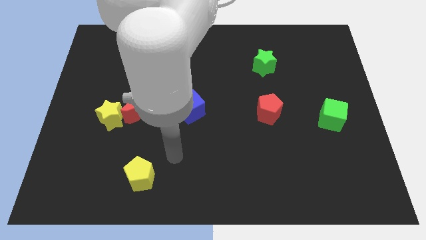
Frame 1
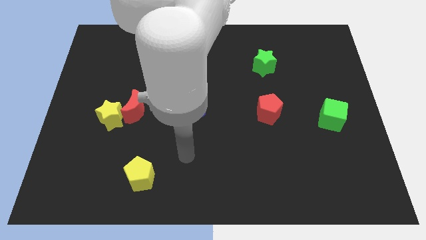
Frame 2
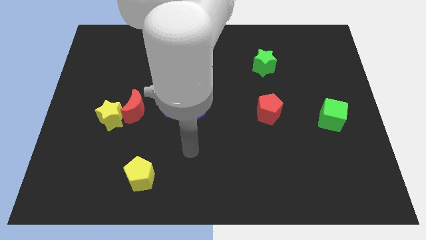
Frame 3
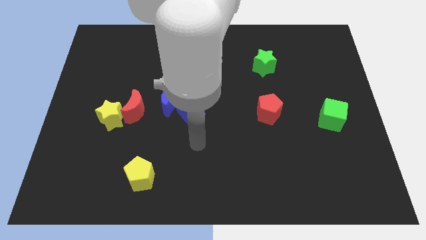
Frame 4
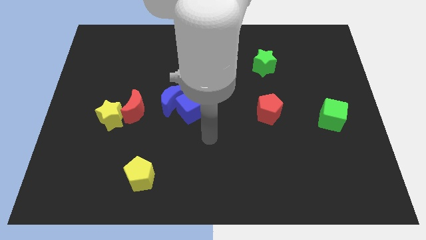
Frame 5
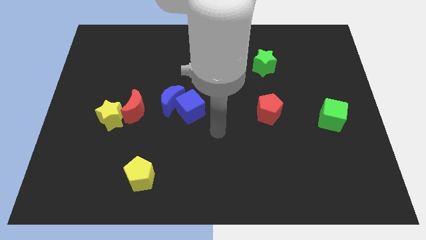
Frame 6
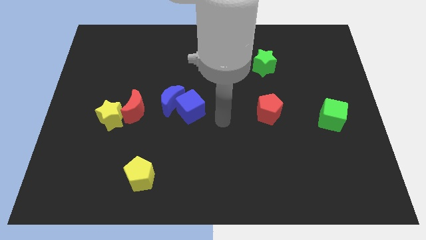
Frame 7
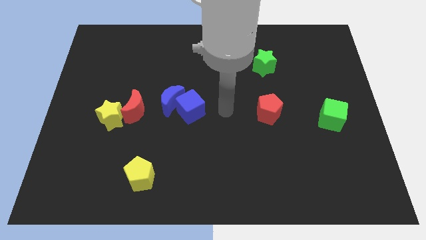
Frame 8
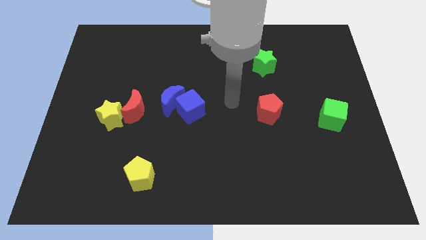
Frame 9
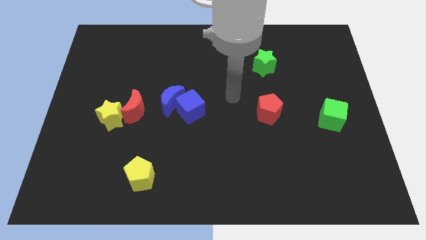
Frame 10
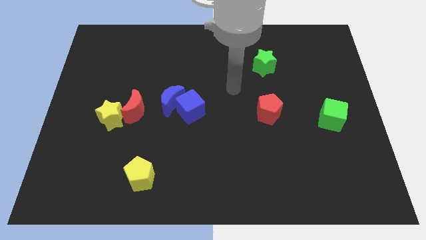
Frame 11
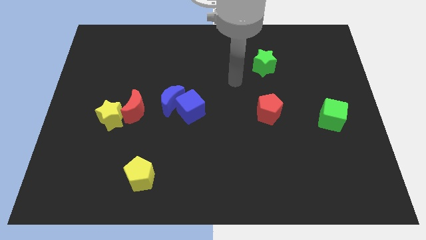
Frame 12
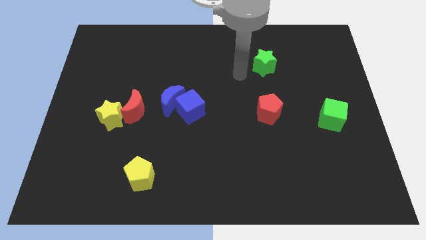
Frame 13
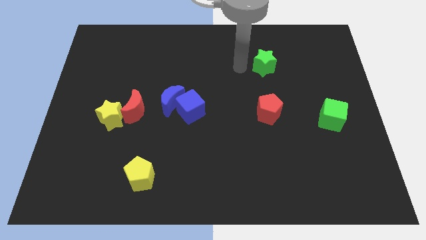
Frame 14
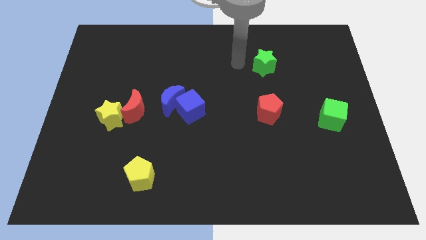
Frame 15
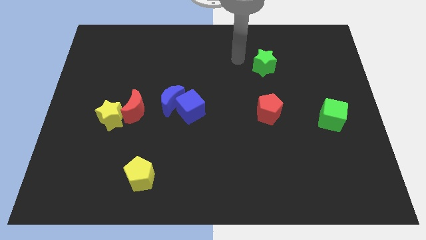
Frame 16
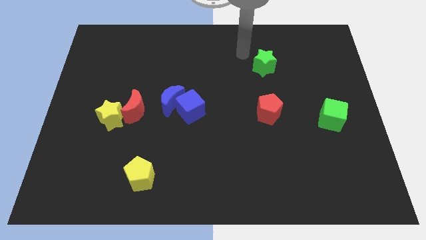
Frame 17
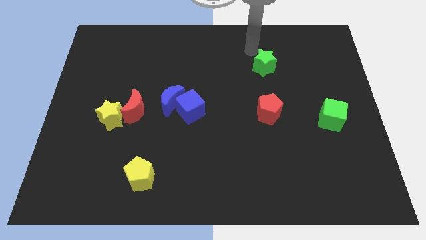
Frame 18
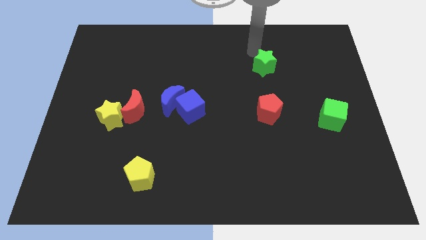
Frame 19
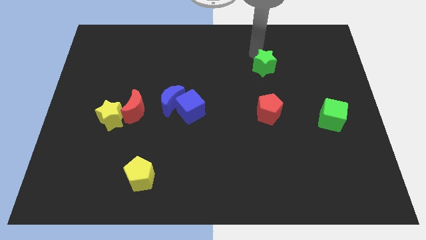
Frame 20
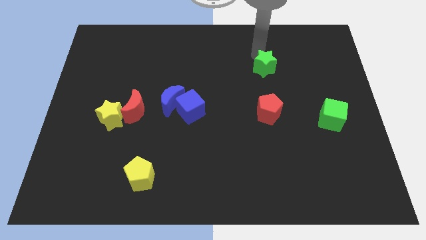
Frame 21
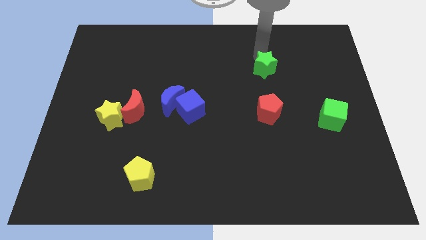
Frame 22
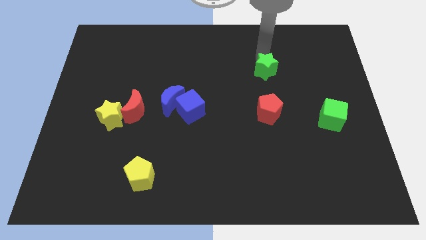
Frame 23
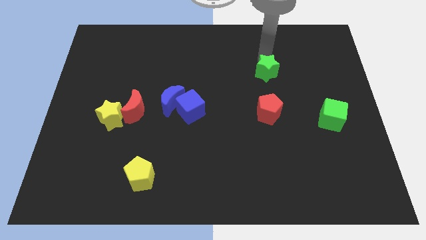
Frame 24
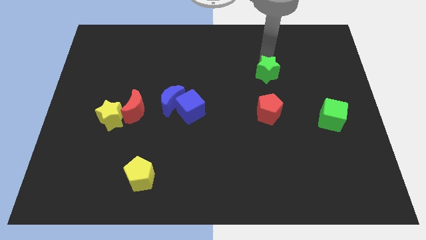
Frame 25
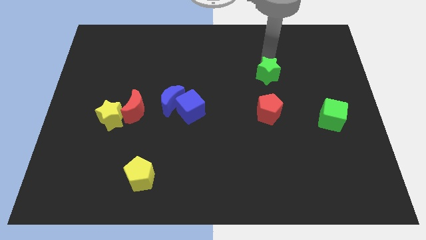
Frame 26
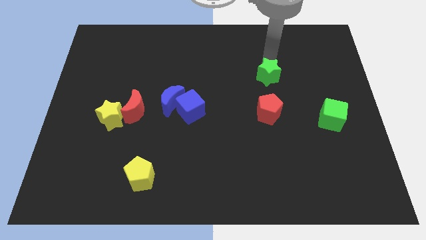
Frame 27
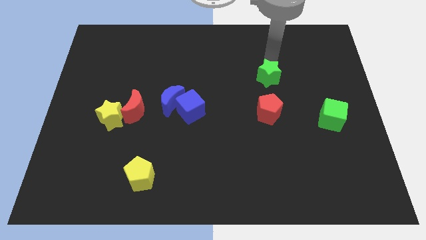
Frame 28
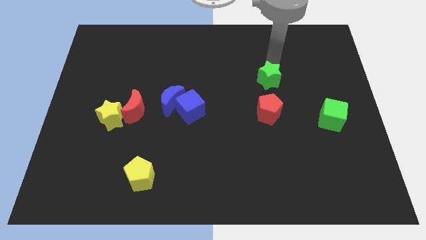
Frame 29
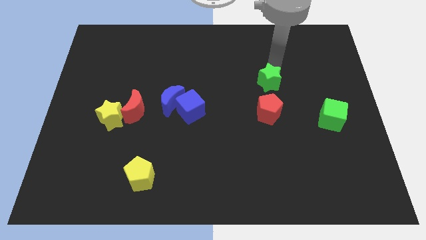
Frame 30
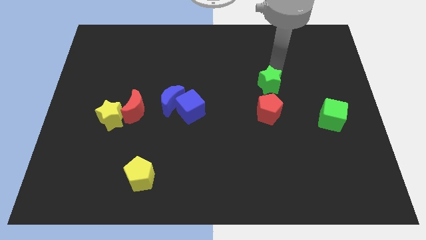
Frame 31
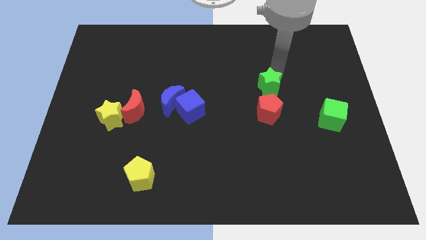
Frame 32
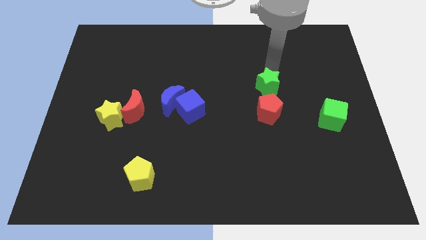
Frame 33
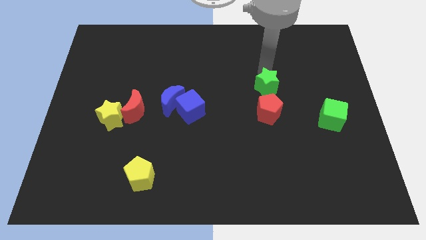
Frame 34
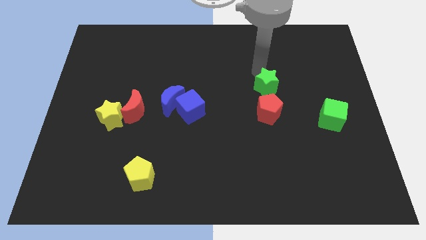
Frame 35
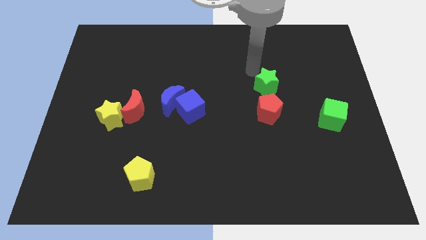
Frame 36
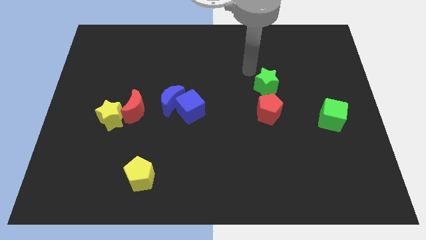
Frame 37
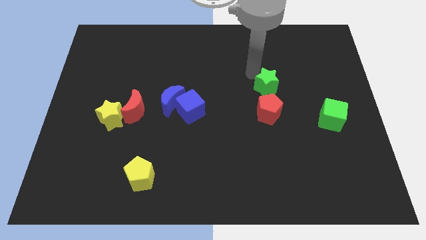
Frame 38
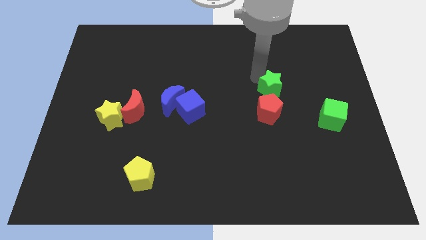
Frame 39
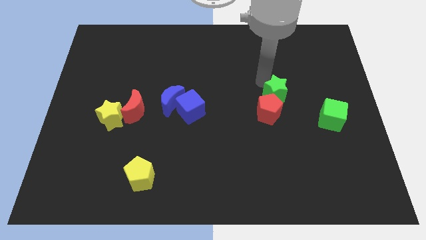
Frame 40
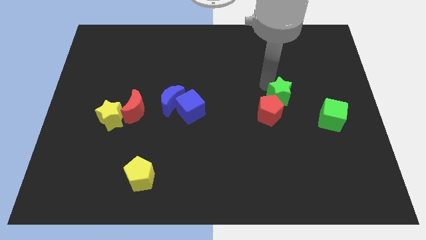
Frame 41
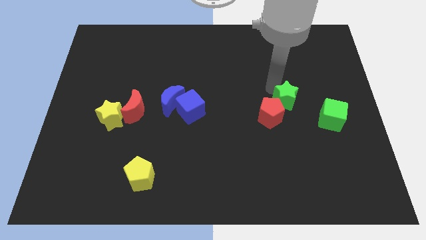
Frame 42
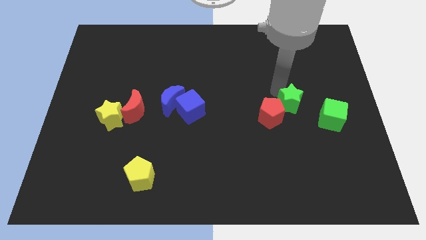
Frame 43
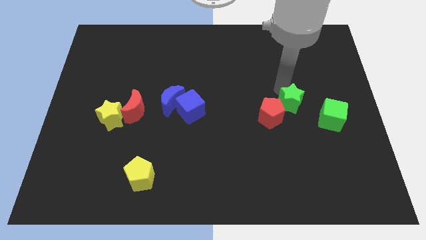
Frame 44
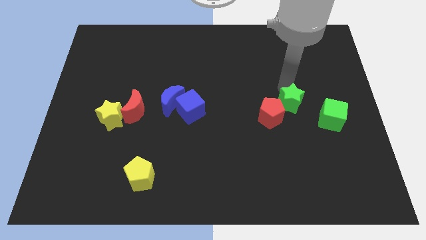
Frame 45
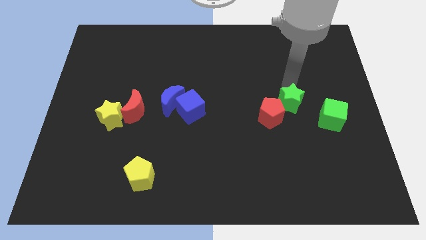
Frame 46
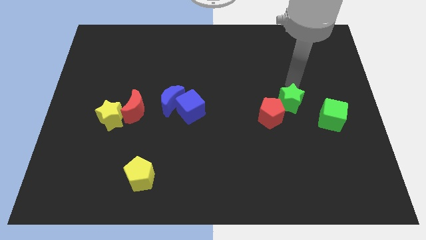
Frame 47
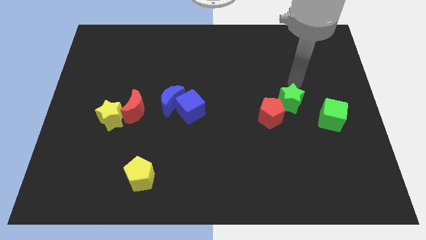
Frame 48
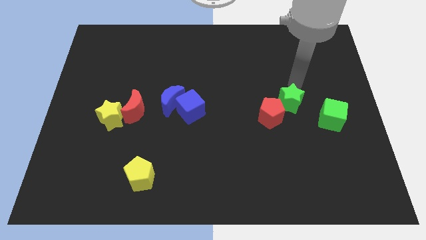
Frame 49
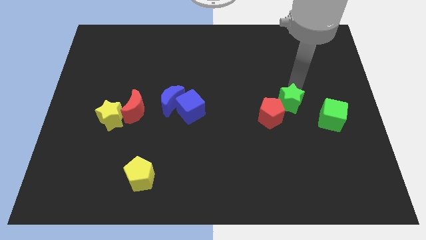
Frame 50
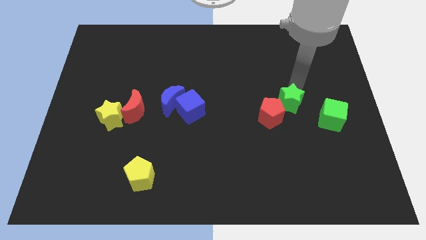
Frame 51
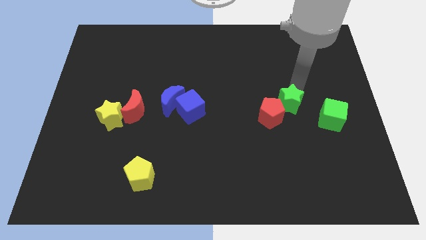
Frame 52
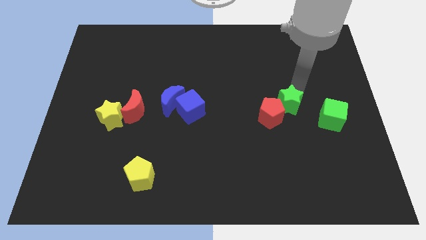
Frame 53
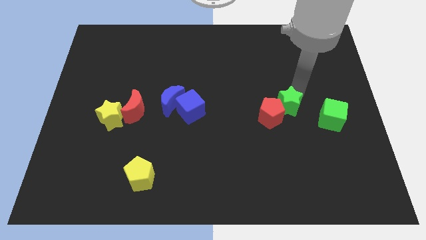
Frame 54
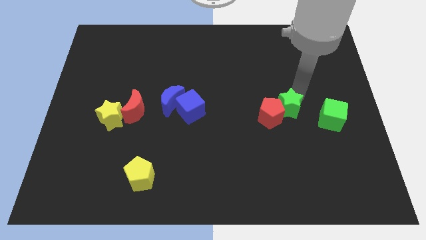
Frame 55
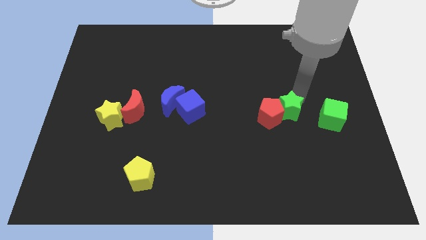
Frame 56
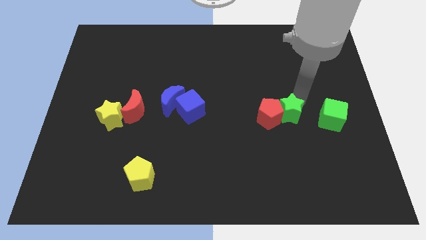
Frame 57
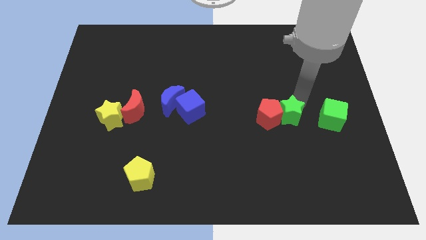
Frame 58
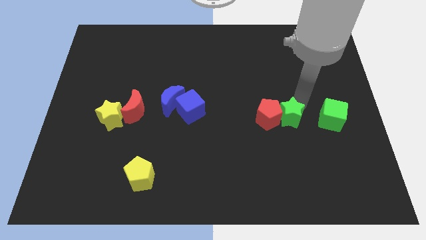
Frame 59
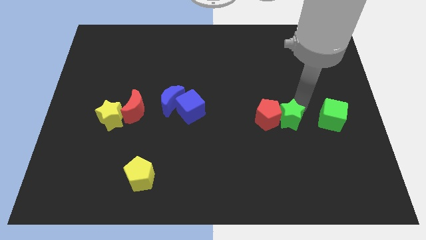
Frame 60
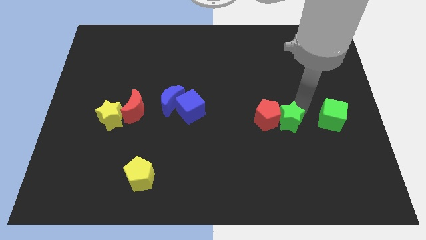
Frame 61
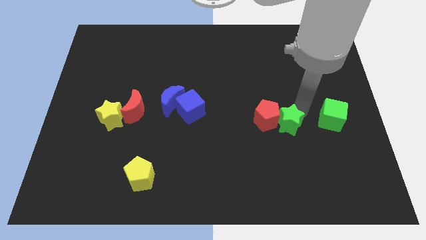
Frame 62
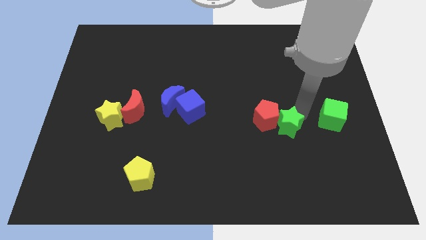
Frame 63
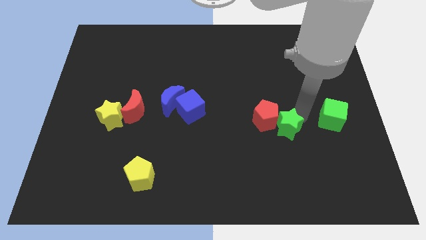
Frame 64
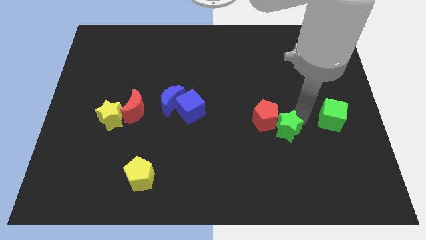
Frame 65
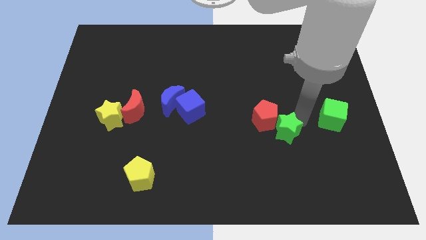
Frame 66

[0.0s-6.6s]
slide the green star down

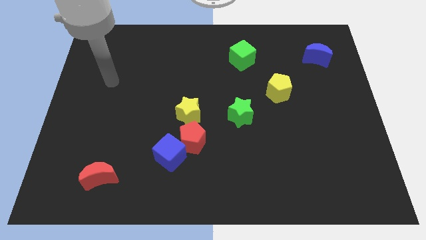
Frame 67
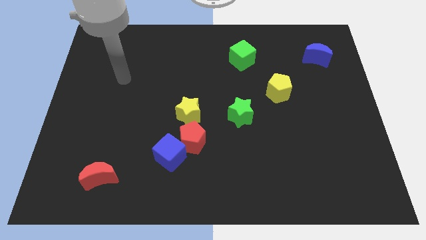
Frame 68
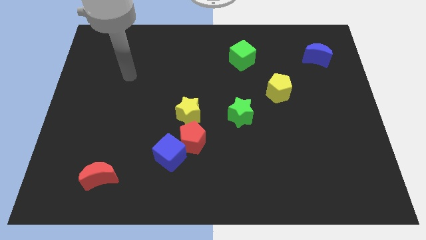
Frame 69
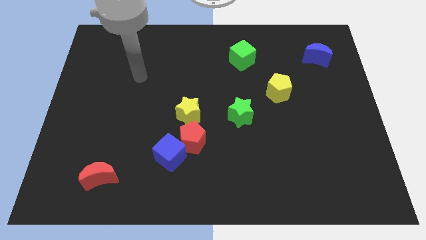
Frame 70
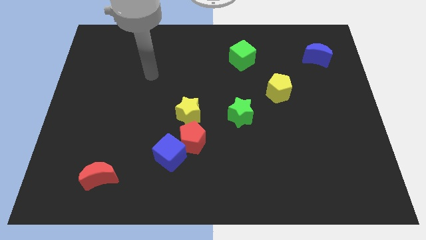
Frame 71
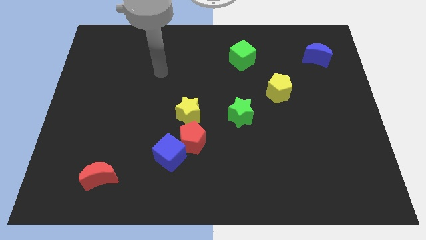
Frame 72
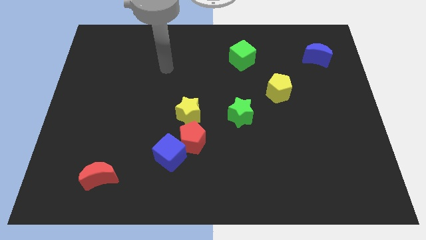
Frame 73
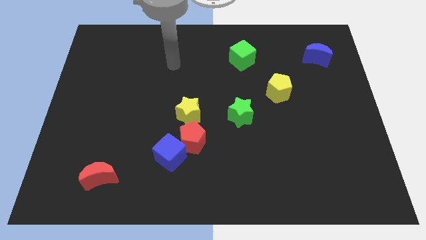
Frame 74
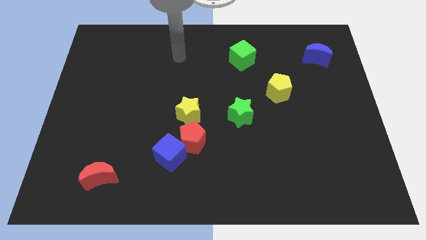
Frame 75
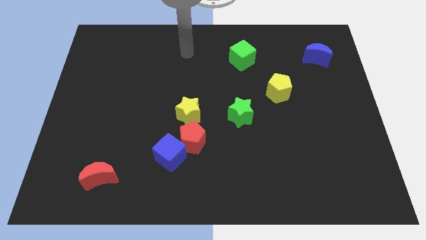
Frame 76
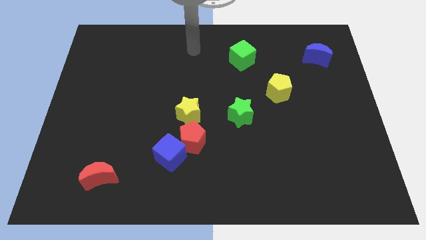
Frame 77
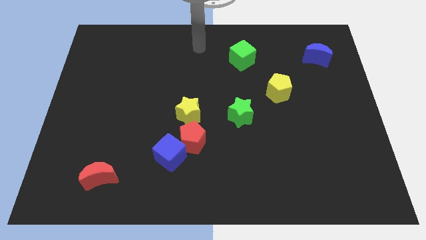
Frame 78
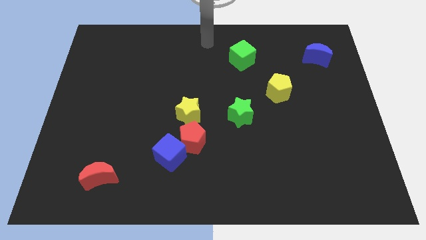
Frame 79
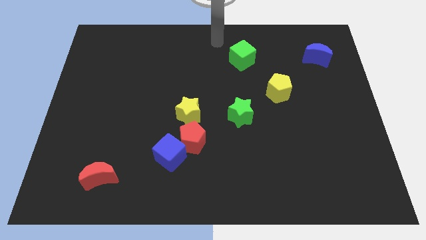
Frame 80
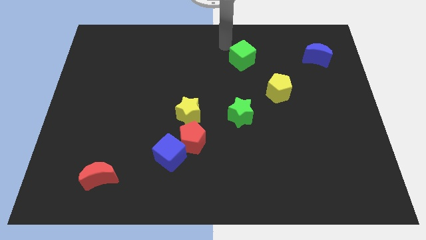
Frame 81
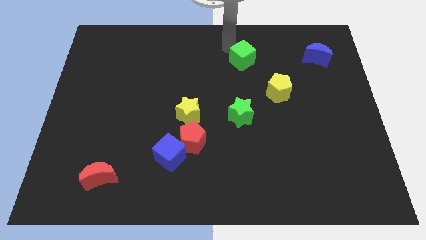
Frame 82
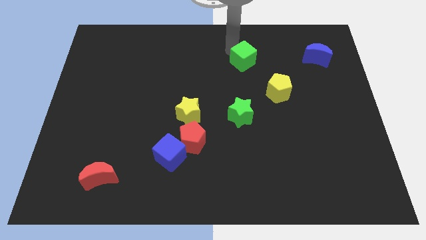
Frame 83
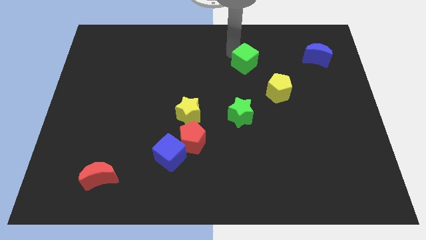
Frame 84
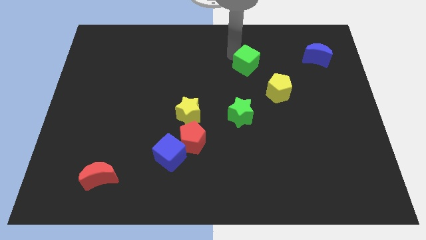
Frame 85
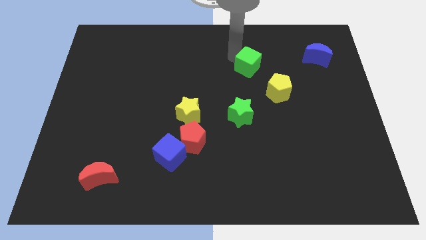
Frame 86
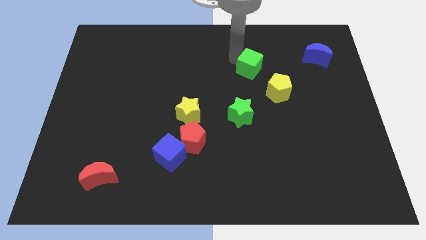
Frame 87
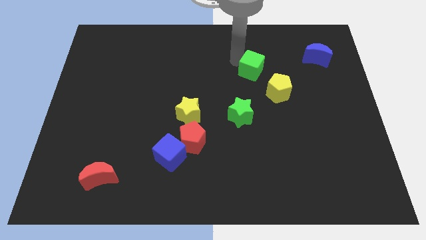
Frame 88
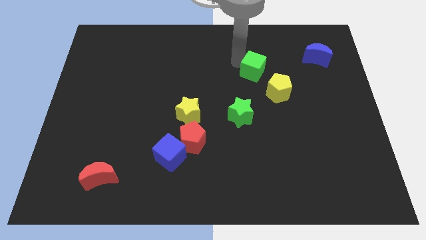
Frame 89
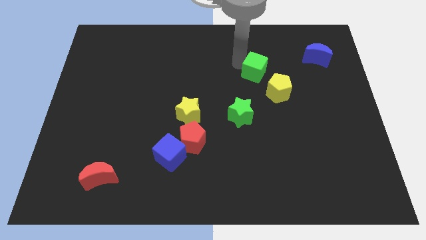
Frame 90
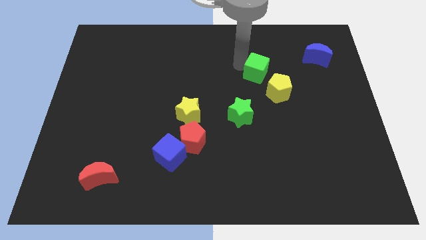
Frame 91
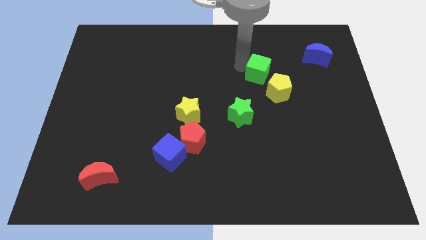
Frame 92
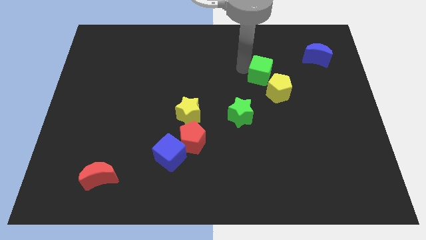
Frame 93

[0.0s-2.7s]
slightly move the green cube diagonally downwards and to the right
